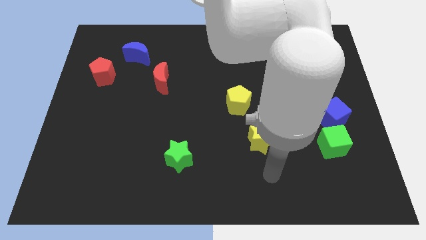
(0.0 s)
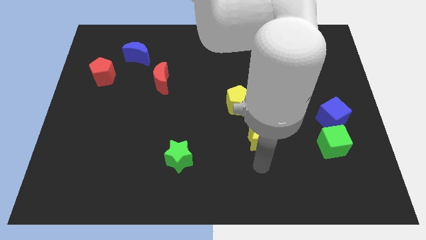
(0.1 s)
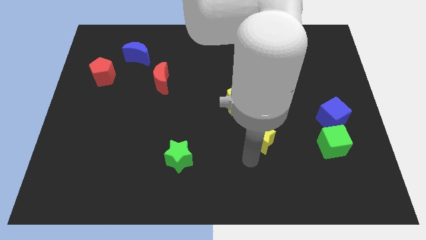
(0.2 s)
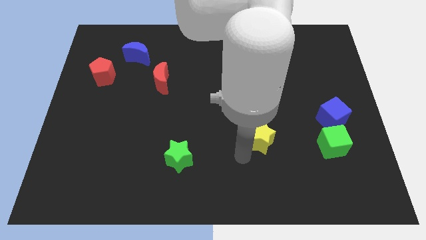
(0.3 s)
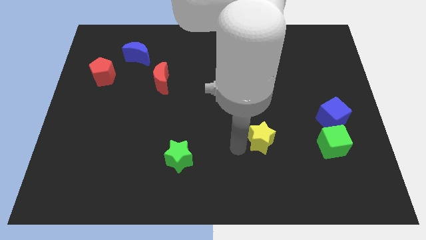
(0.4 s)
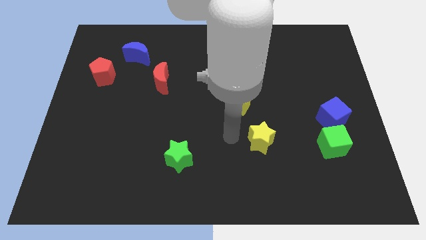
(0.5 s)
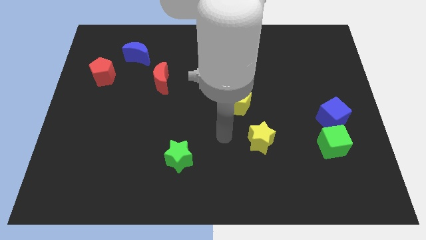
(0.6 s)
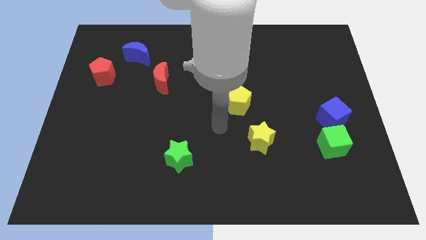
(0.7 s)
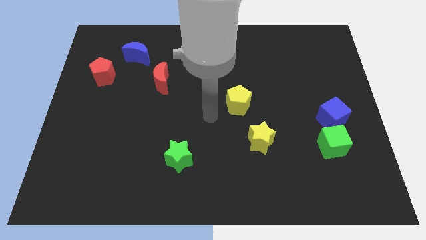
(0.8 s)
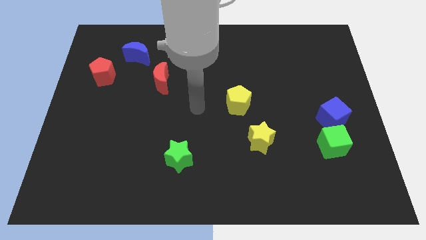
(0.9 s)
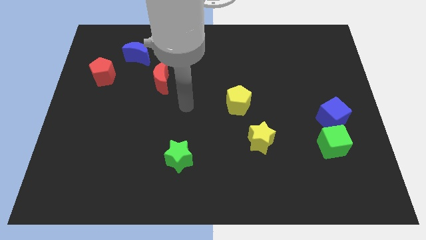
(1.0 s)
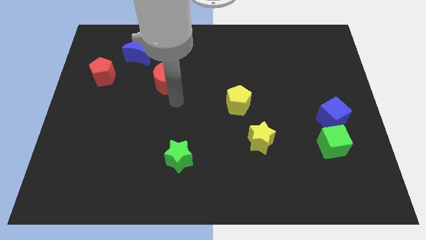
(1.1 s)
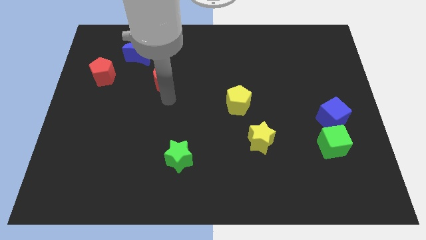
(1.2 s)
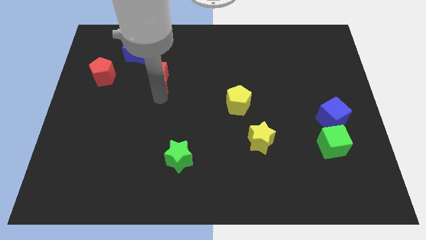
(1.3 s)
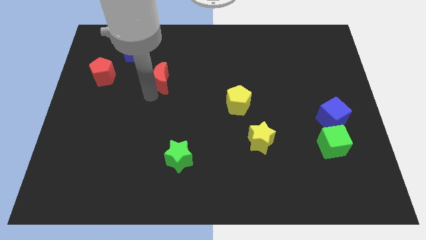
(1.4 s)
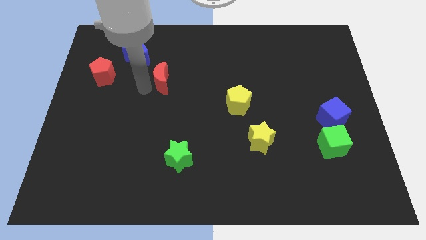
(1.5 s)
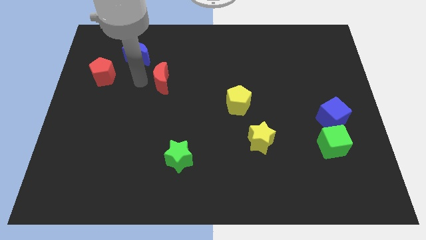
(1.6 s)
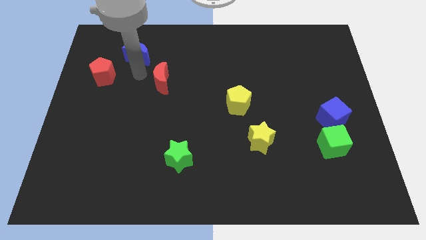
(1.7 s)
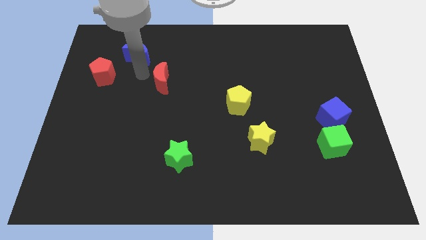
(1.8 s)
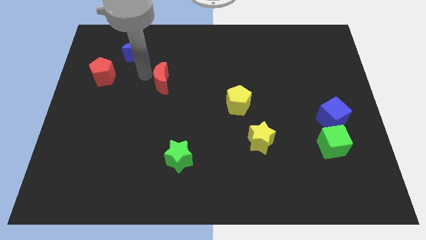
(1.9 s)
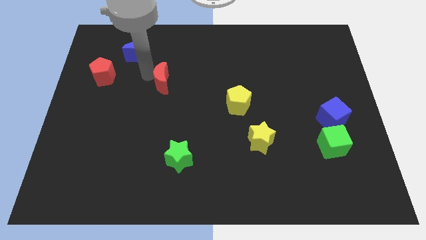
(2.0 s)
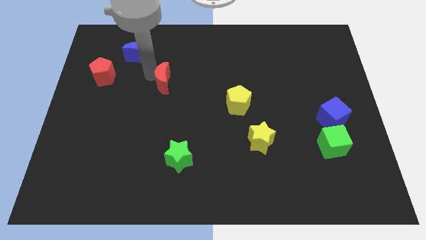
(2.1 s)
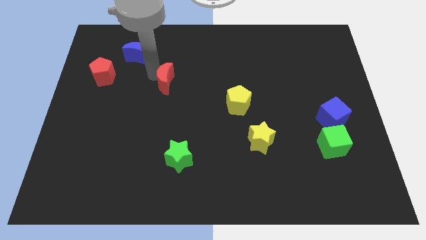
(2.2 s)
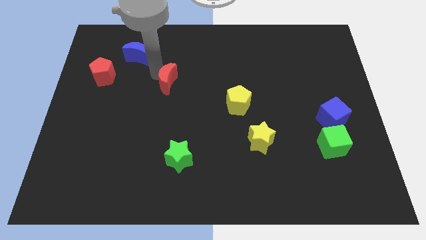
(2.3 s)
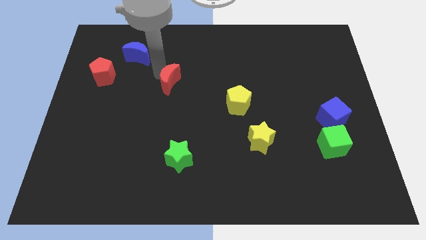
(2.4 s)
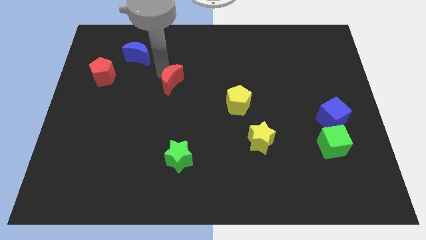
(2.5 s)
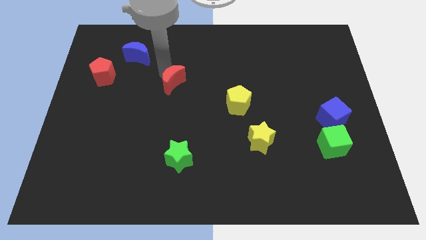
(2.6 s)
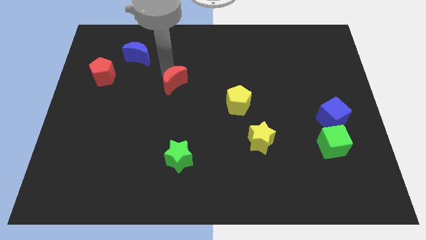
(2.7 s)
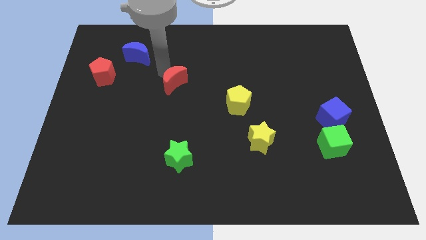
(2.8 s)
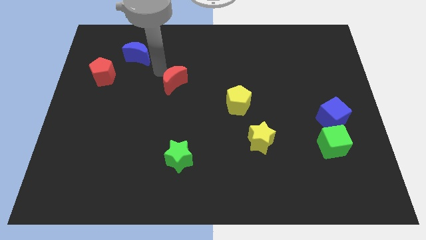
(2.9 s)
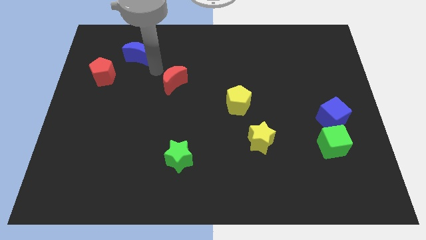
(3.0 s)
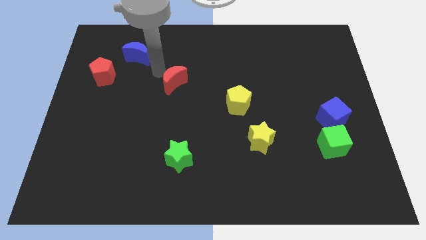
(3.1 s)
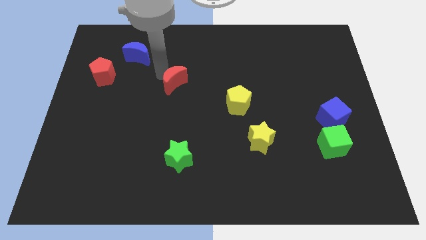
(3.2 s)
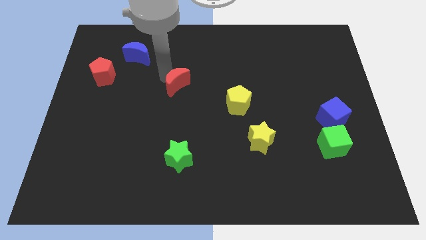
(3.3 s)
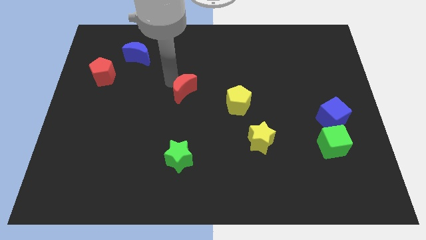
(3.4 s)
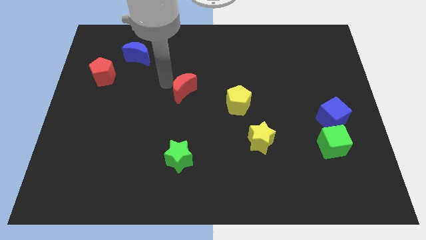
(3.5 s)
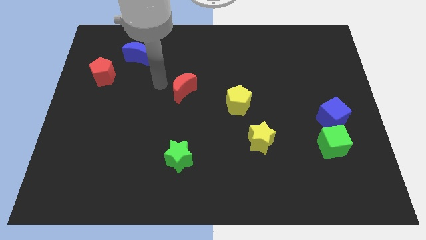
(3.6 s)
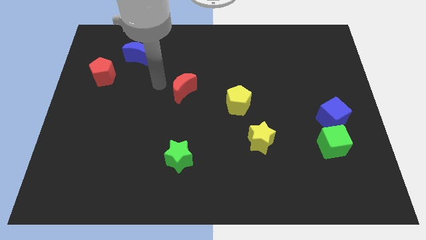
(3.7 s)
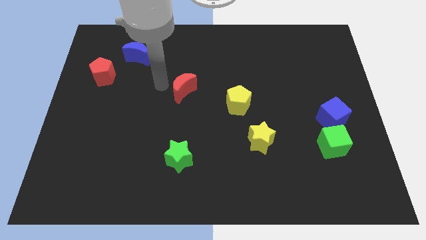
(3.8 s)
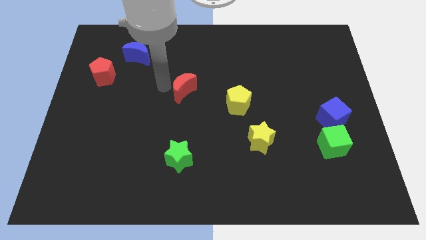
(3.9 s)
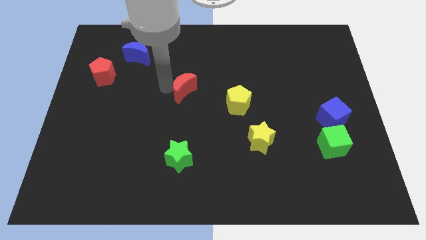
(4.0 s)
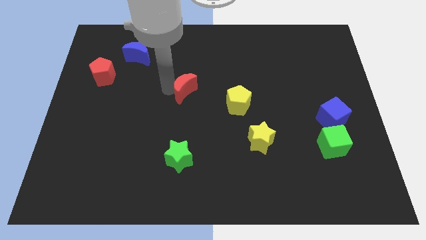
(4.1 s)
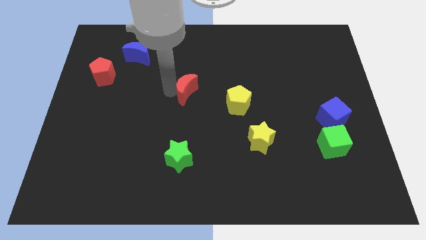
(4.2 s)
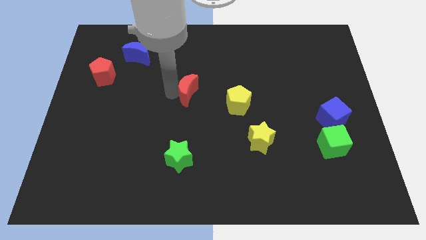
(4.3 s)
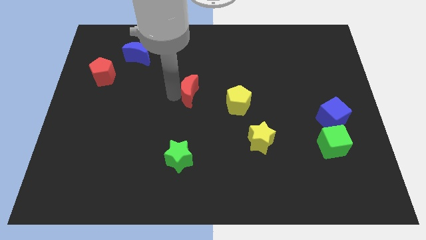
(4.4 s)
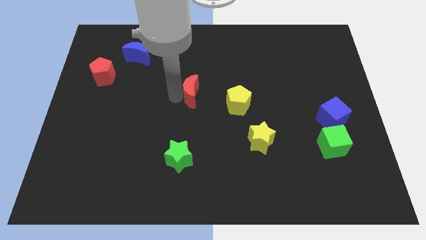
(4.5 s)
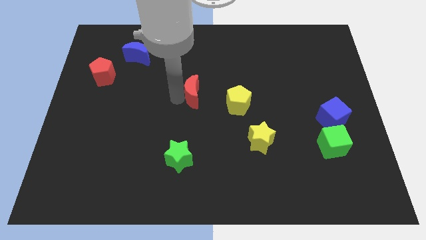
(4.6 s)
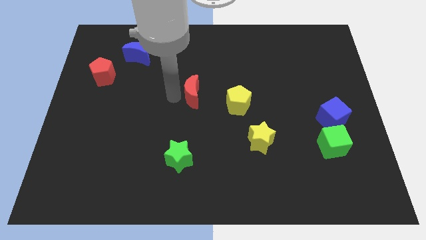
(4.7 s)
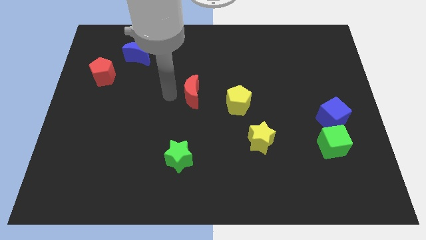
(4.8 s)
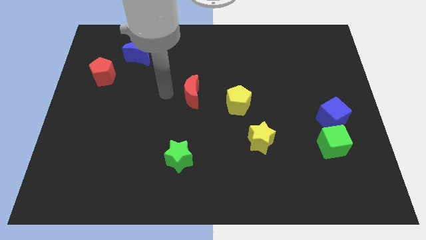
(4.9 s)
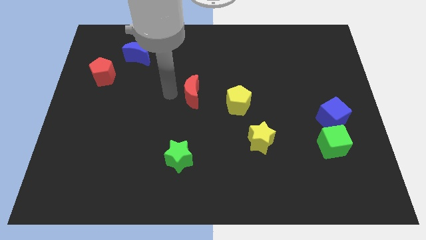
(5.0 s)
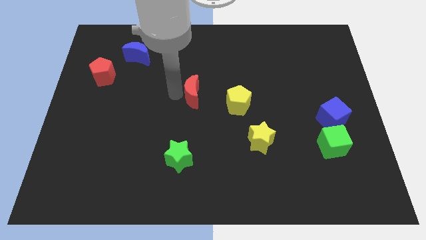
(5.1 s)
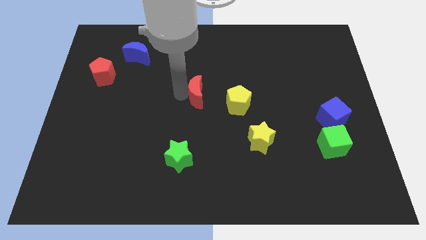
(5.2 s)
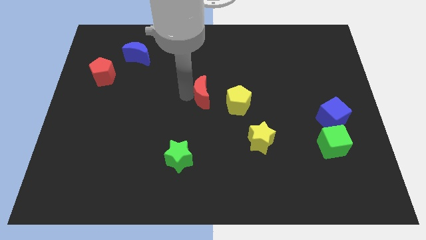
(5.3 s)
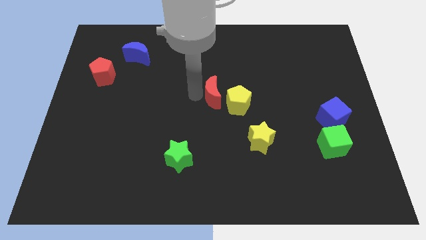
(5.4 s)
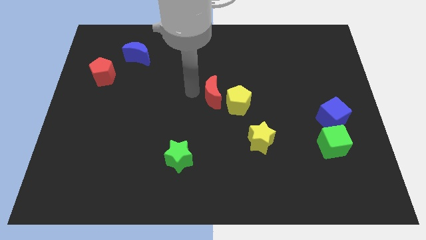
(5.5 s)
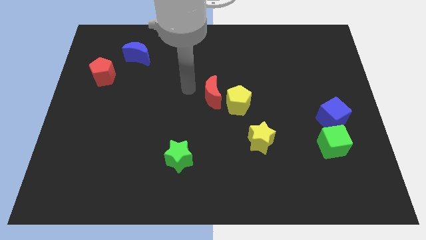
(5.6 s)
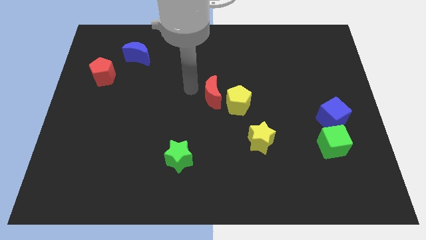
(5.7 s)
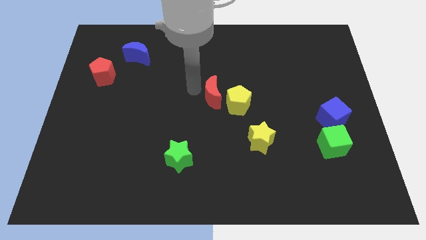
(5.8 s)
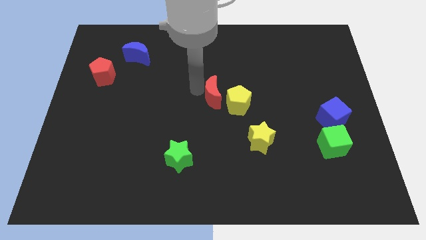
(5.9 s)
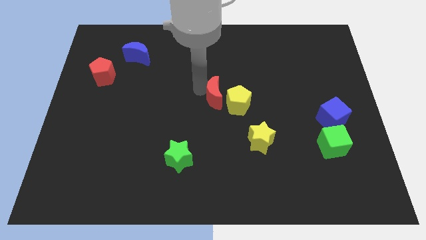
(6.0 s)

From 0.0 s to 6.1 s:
slide the red moon towards the yellow pentagon
